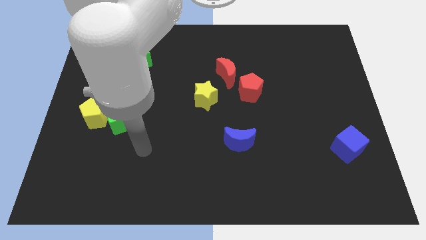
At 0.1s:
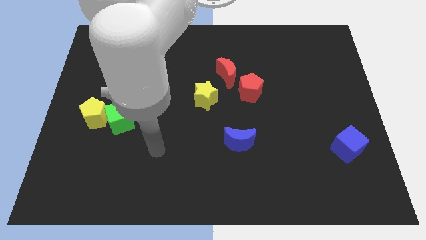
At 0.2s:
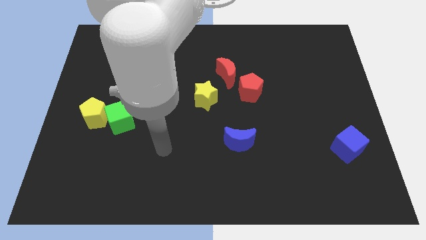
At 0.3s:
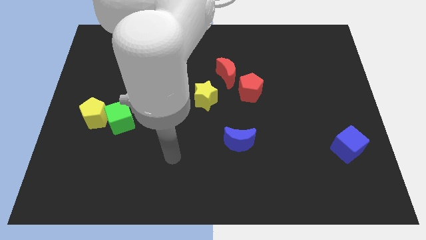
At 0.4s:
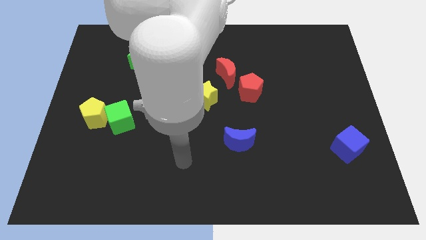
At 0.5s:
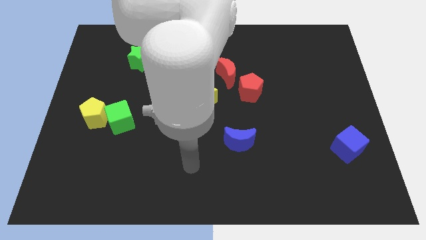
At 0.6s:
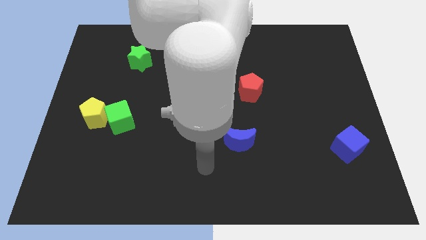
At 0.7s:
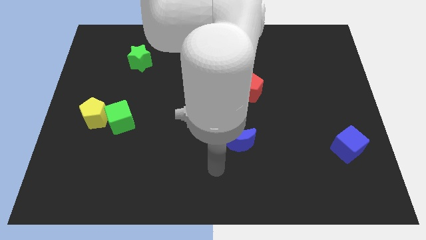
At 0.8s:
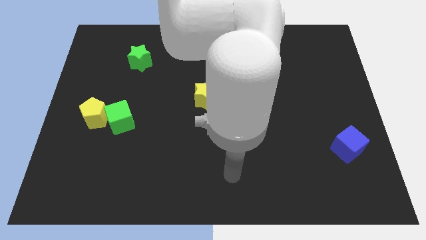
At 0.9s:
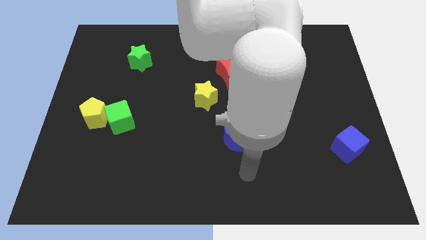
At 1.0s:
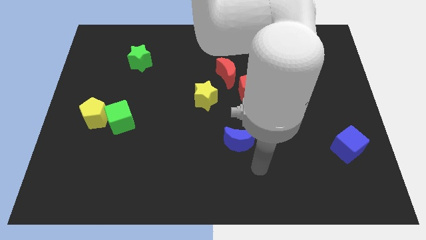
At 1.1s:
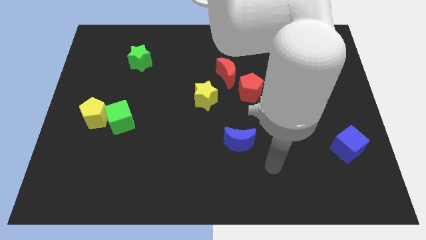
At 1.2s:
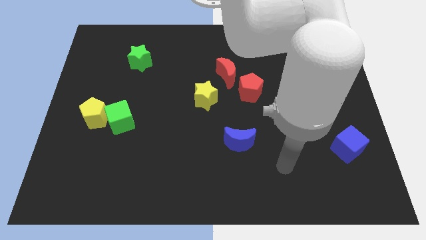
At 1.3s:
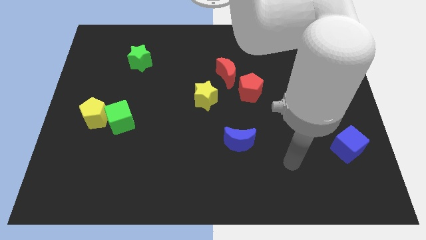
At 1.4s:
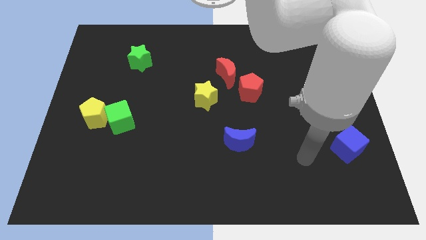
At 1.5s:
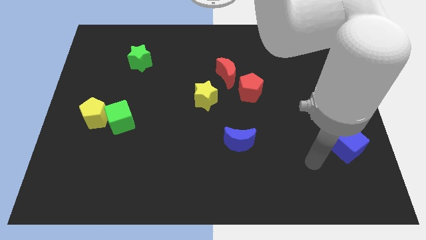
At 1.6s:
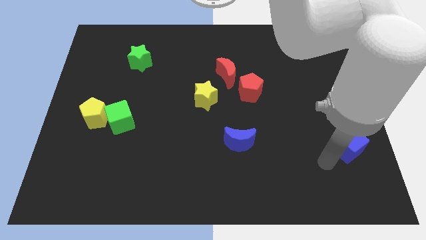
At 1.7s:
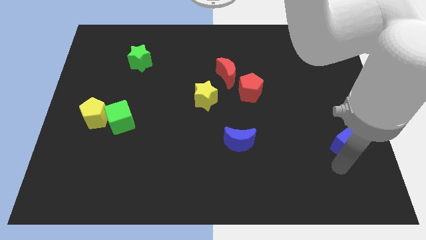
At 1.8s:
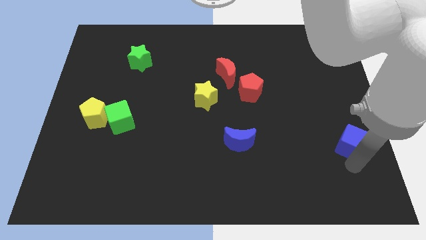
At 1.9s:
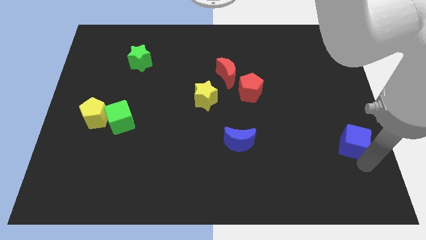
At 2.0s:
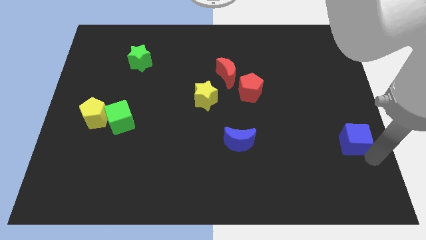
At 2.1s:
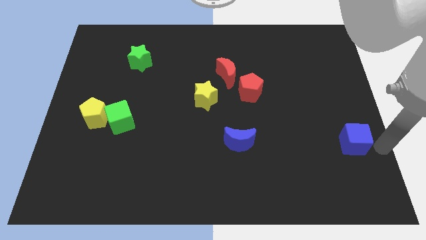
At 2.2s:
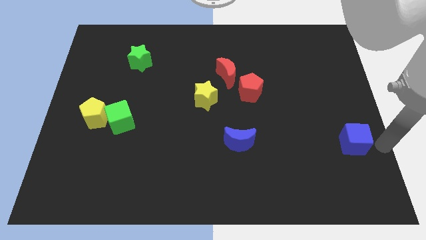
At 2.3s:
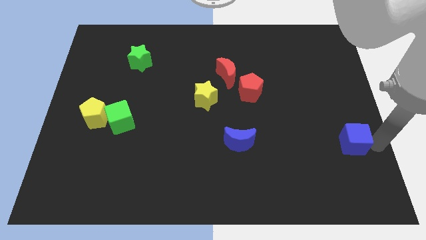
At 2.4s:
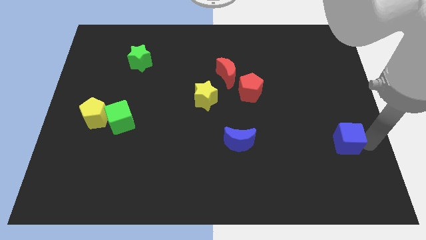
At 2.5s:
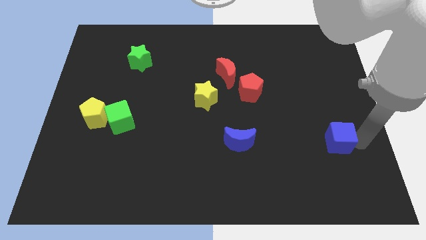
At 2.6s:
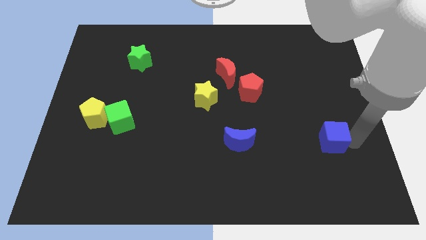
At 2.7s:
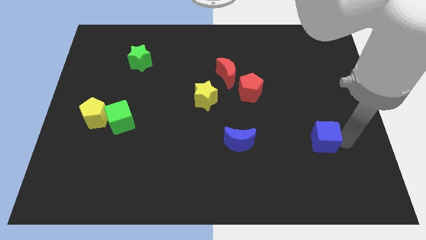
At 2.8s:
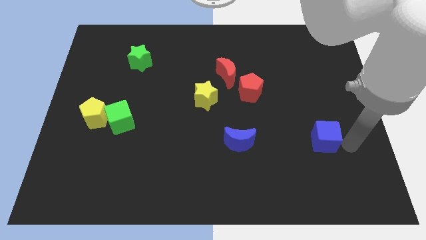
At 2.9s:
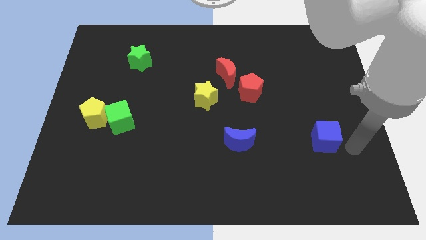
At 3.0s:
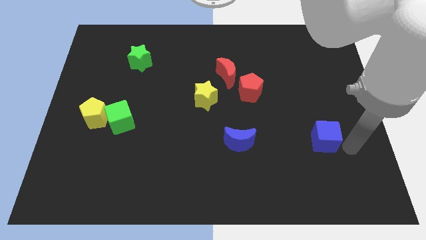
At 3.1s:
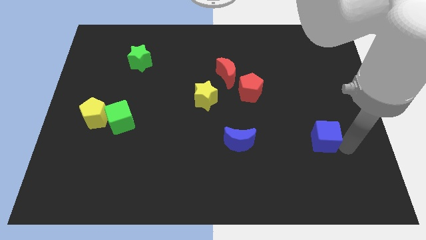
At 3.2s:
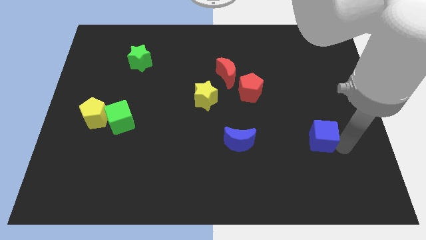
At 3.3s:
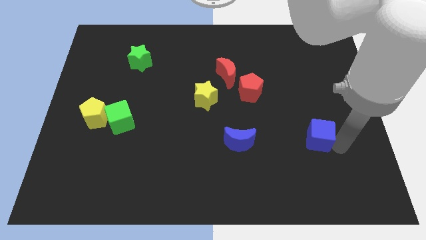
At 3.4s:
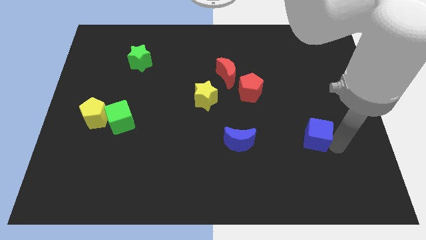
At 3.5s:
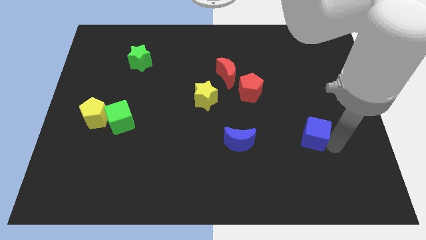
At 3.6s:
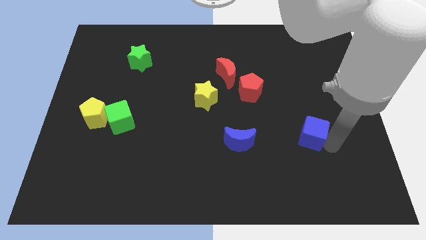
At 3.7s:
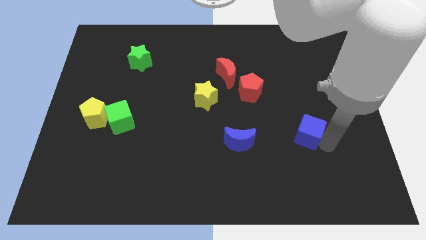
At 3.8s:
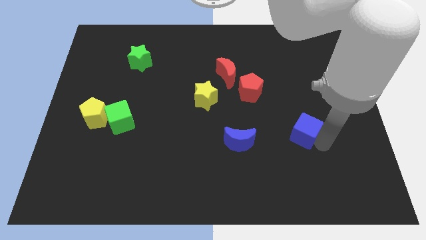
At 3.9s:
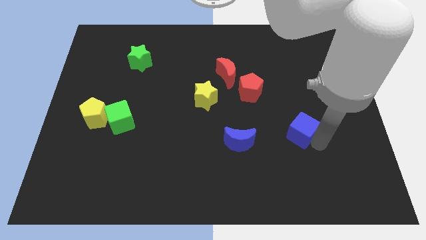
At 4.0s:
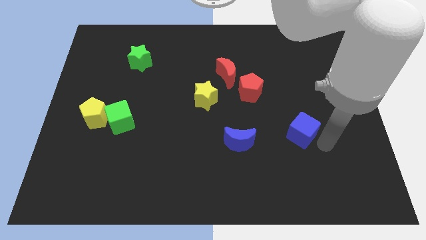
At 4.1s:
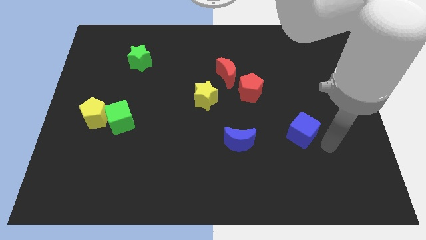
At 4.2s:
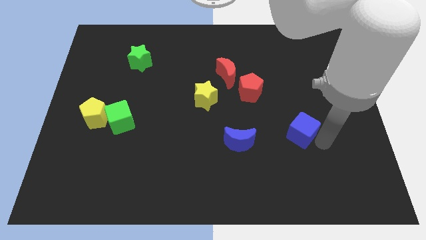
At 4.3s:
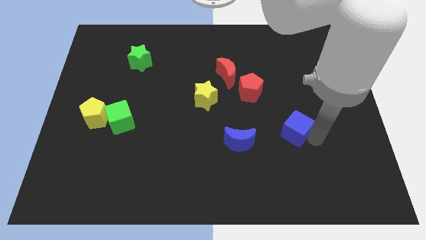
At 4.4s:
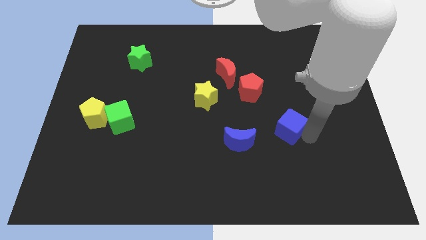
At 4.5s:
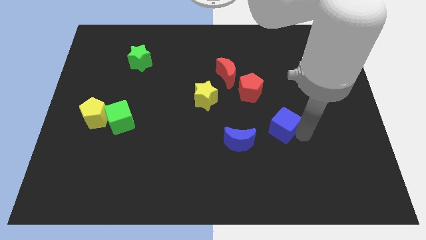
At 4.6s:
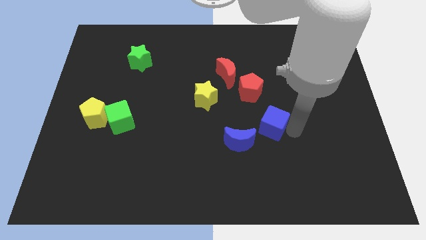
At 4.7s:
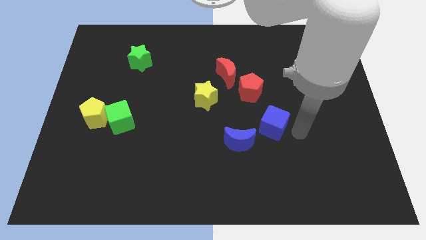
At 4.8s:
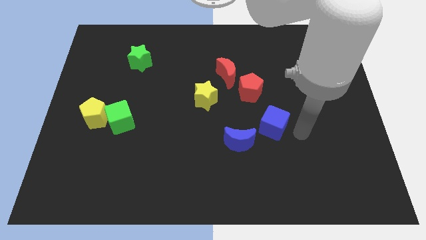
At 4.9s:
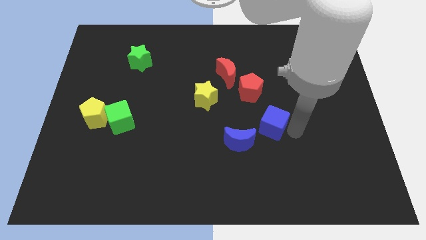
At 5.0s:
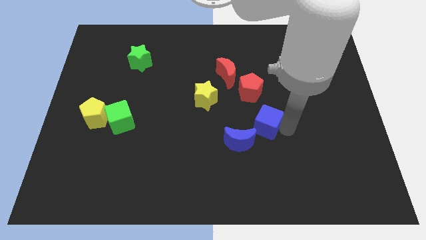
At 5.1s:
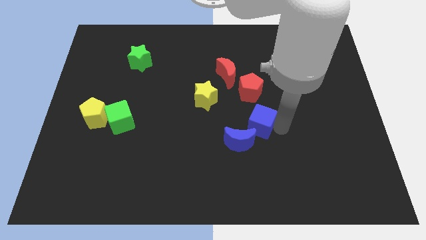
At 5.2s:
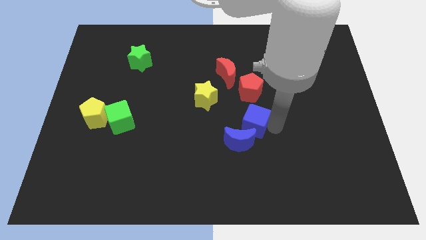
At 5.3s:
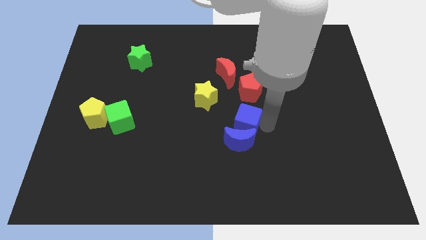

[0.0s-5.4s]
slide the blue cube diagonally down and to the right of the yellow star

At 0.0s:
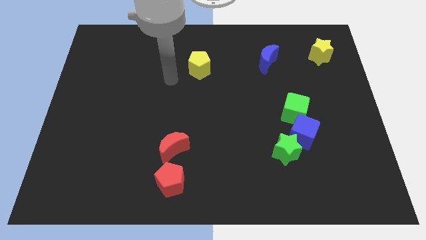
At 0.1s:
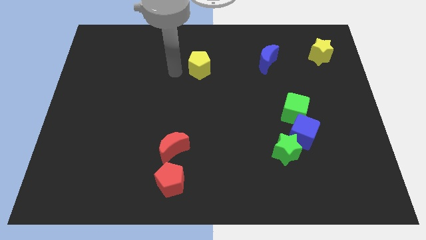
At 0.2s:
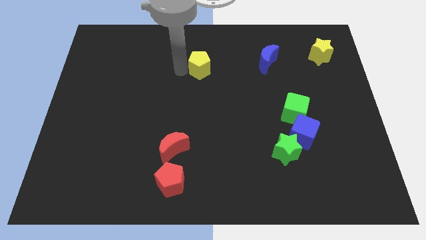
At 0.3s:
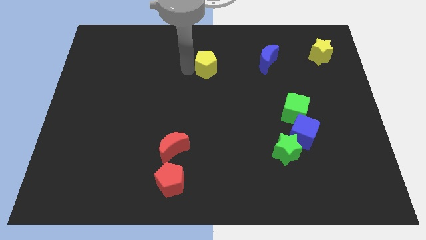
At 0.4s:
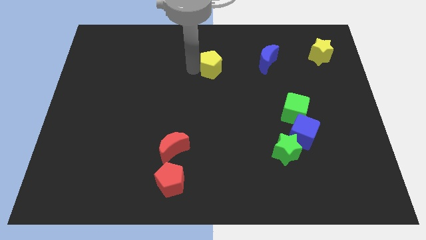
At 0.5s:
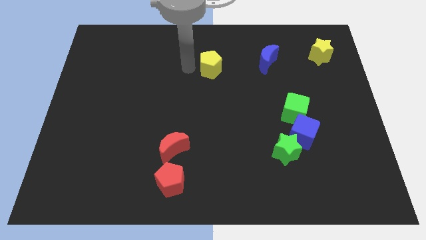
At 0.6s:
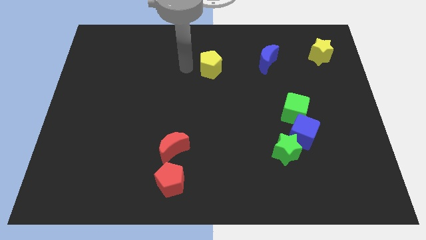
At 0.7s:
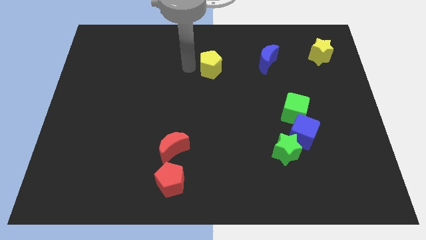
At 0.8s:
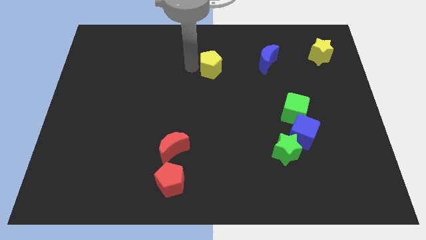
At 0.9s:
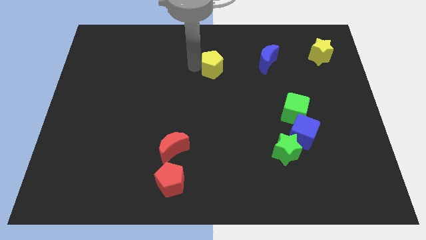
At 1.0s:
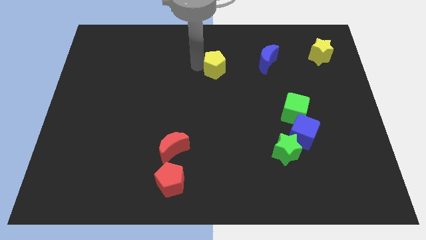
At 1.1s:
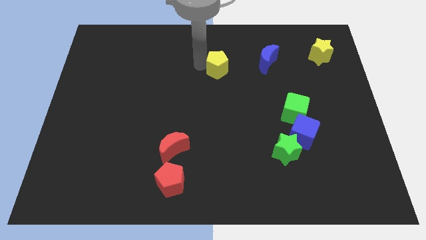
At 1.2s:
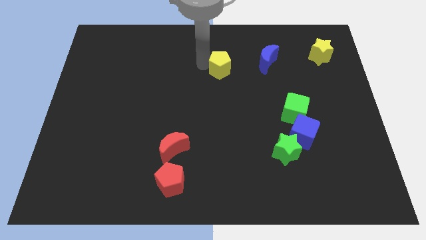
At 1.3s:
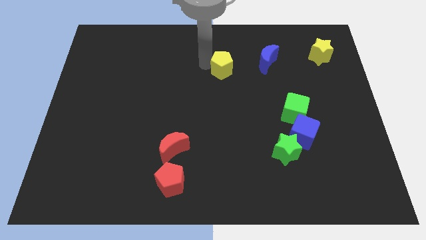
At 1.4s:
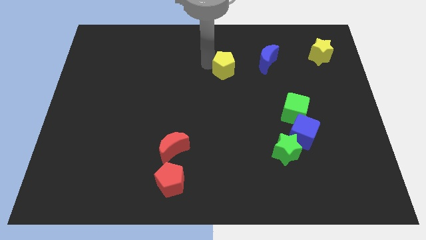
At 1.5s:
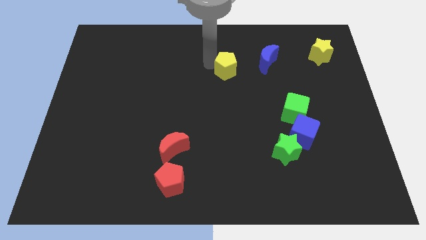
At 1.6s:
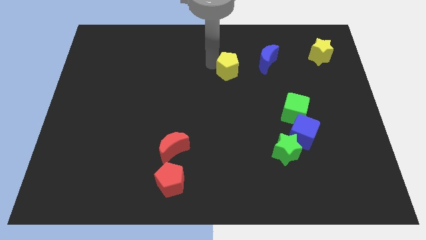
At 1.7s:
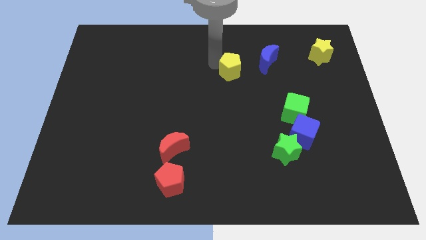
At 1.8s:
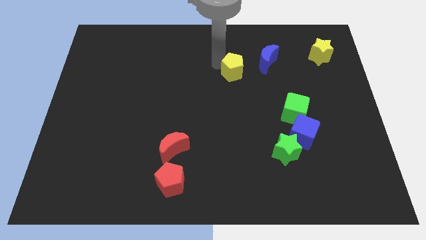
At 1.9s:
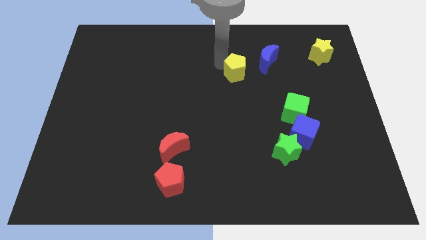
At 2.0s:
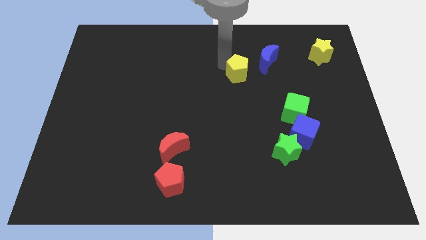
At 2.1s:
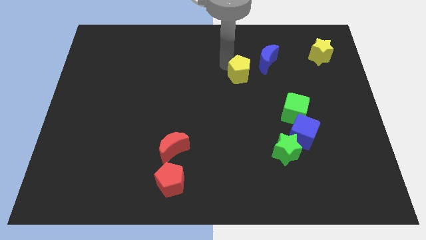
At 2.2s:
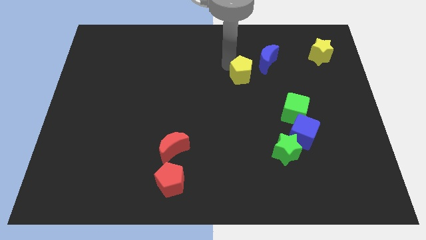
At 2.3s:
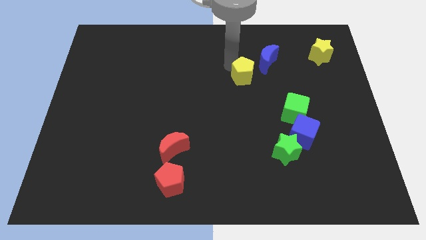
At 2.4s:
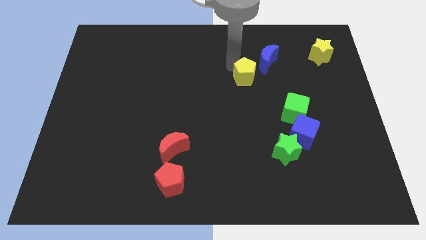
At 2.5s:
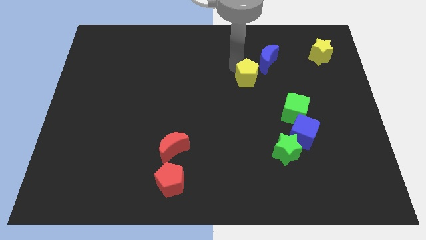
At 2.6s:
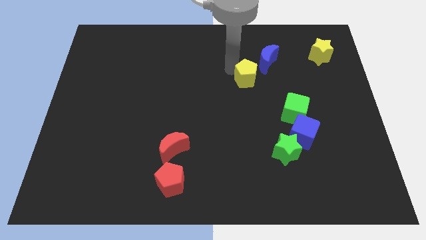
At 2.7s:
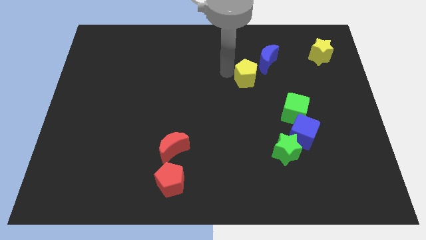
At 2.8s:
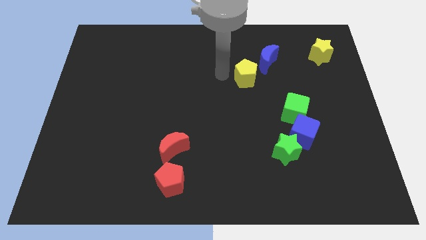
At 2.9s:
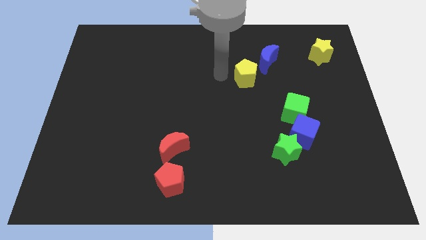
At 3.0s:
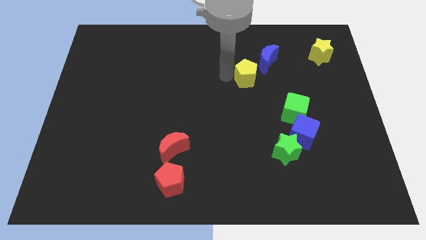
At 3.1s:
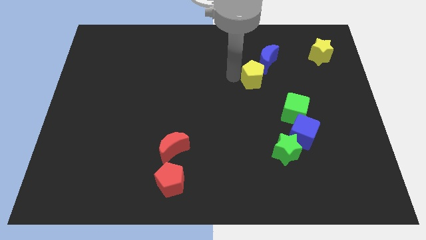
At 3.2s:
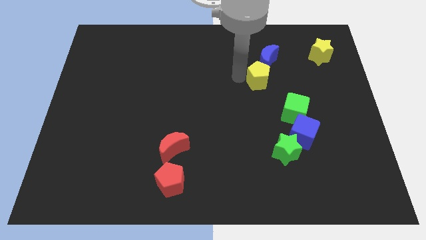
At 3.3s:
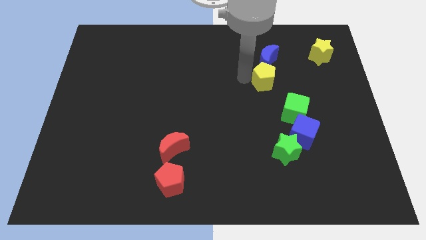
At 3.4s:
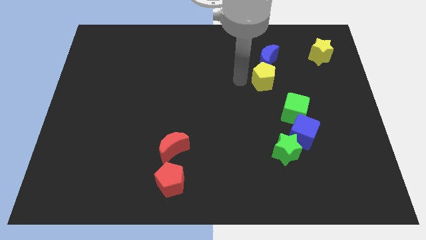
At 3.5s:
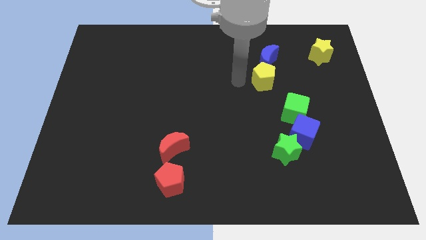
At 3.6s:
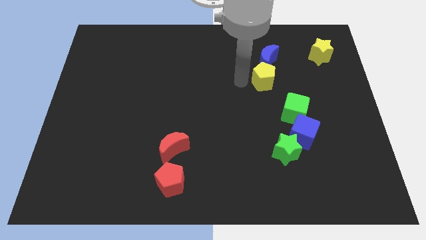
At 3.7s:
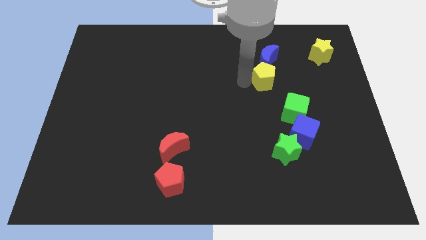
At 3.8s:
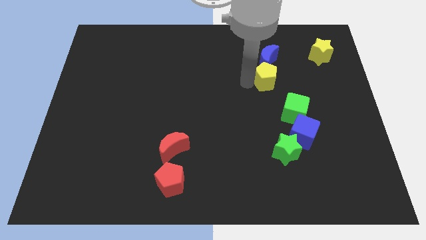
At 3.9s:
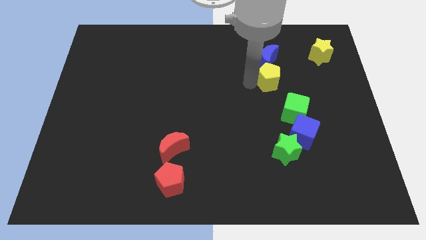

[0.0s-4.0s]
put the yellow pentagon to the top side of the green cube
